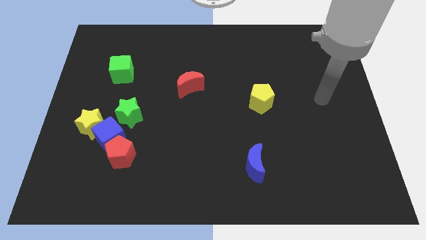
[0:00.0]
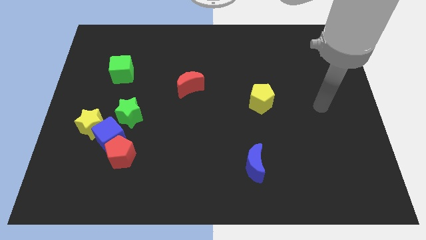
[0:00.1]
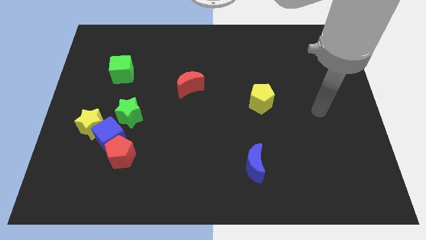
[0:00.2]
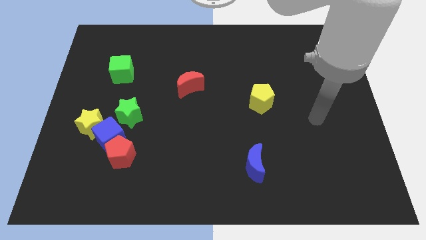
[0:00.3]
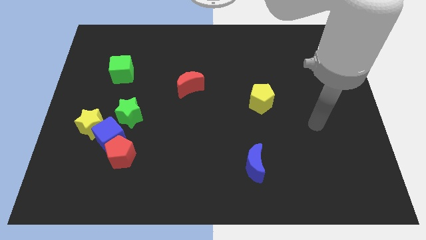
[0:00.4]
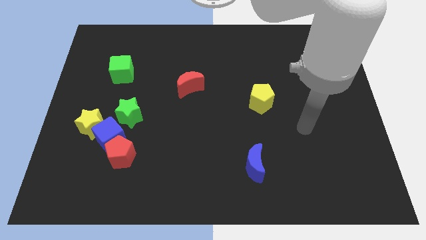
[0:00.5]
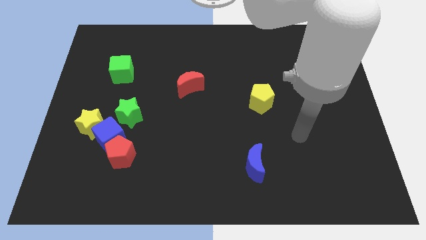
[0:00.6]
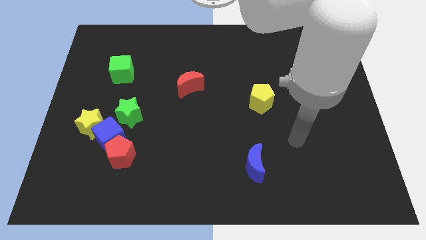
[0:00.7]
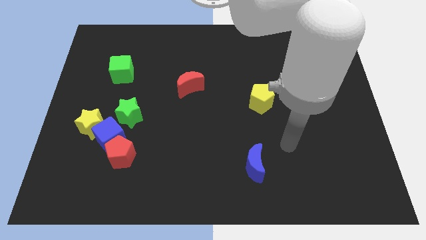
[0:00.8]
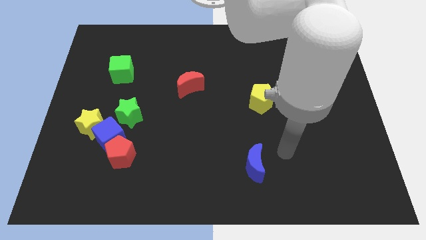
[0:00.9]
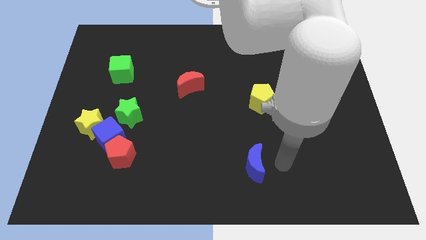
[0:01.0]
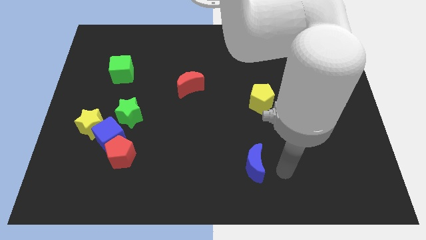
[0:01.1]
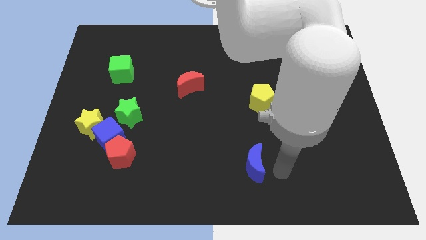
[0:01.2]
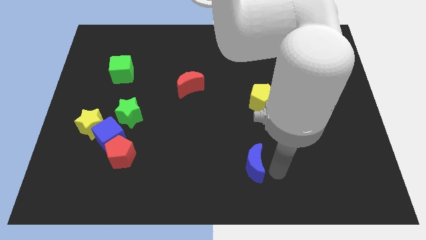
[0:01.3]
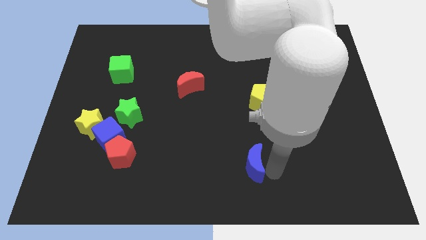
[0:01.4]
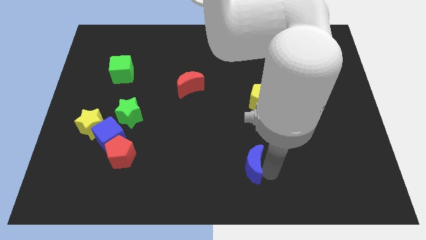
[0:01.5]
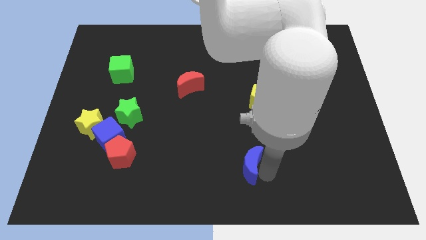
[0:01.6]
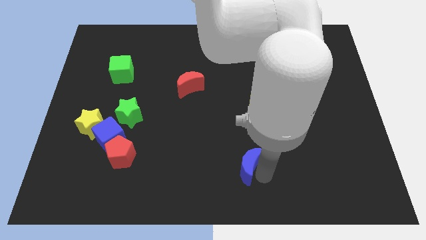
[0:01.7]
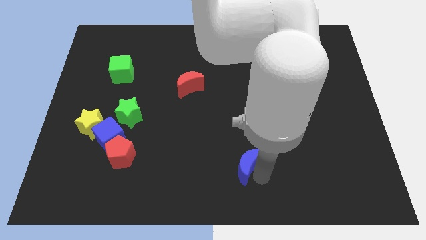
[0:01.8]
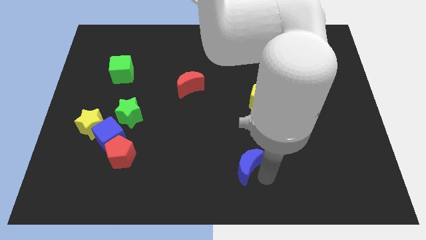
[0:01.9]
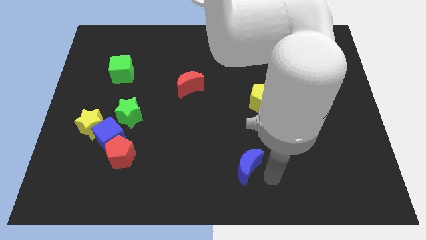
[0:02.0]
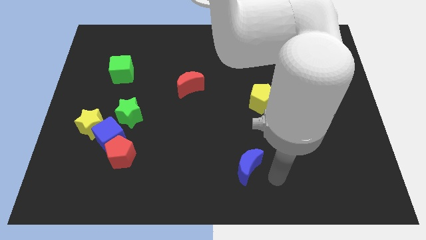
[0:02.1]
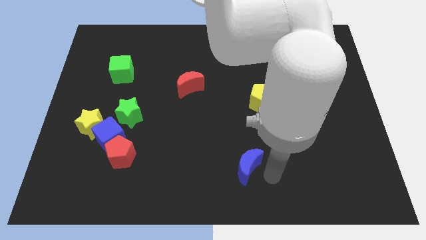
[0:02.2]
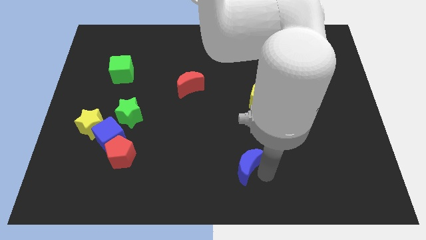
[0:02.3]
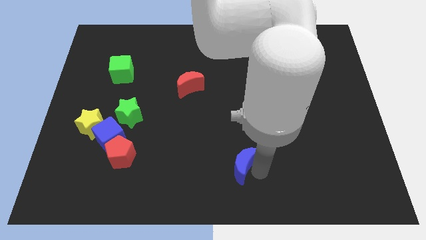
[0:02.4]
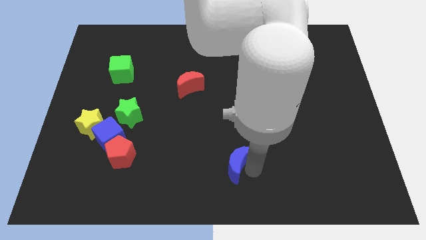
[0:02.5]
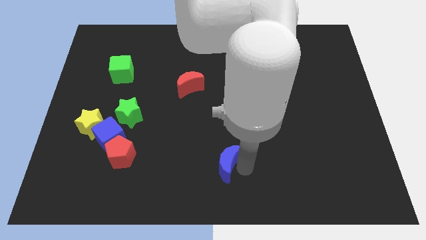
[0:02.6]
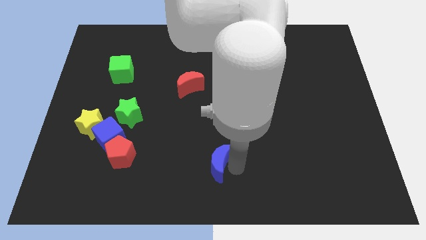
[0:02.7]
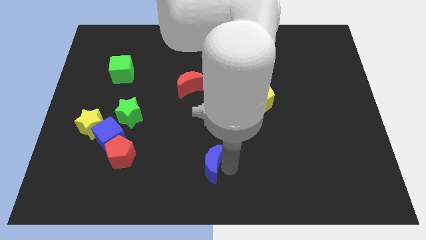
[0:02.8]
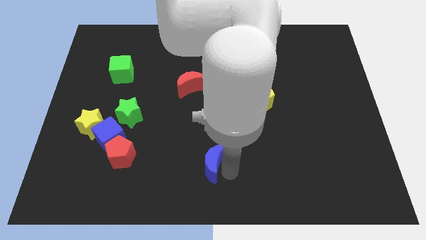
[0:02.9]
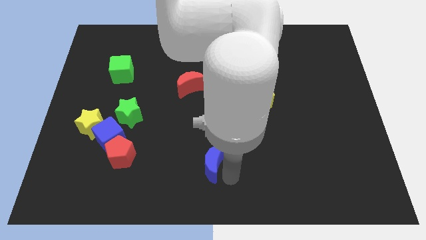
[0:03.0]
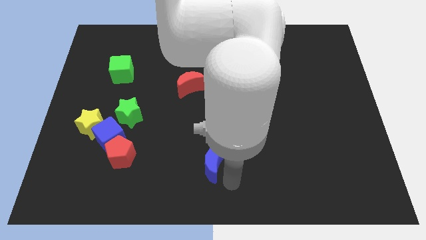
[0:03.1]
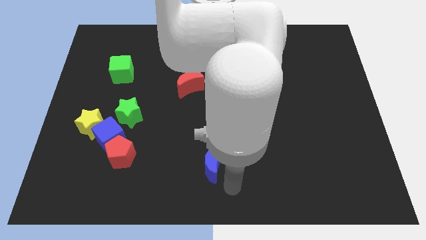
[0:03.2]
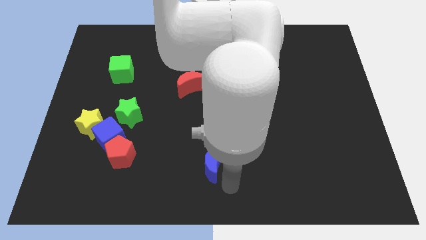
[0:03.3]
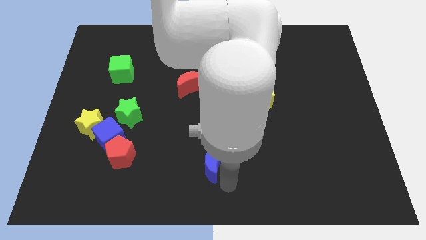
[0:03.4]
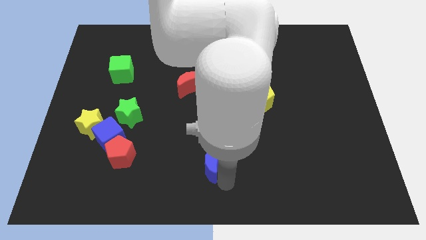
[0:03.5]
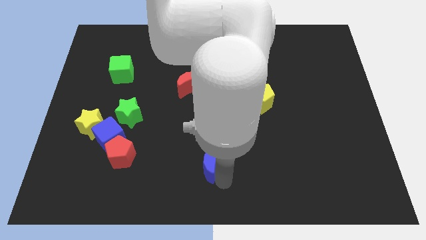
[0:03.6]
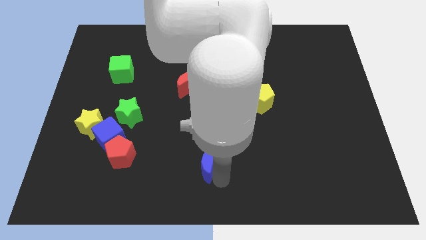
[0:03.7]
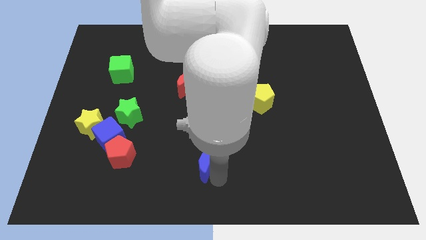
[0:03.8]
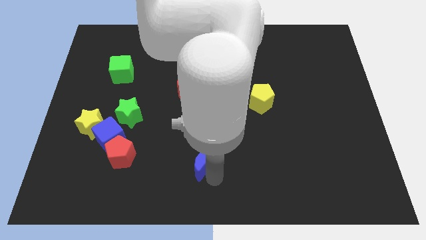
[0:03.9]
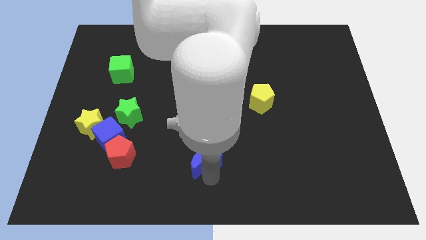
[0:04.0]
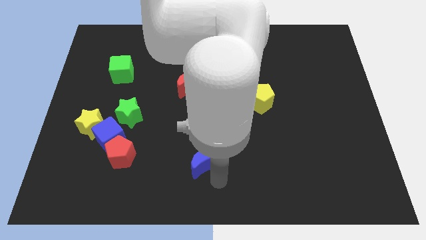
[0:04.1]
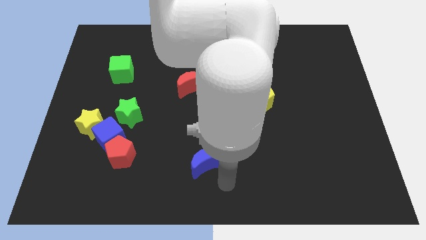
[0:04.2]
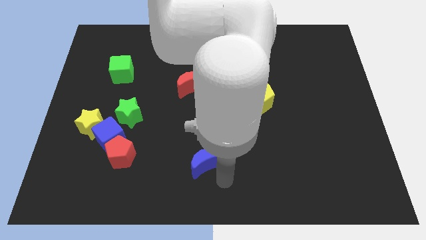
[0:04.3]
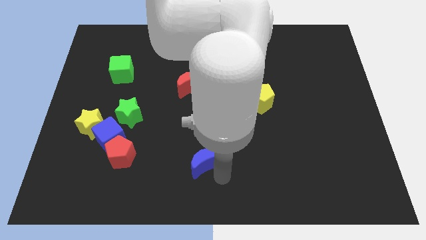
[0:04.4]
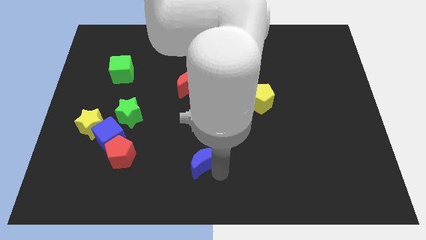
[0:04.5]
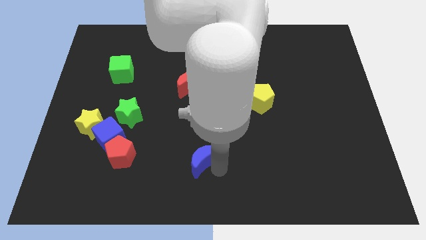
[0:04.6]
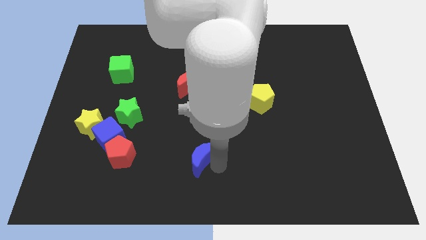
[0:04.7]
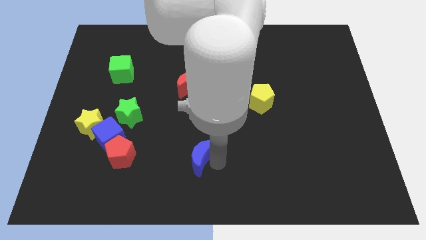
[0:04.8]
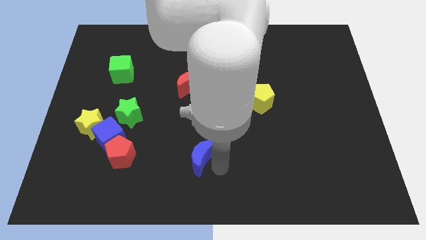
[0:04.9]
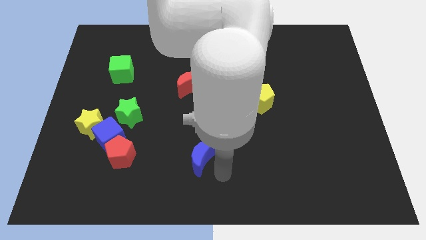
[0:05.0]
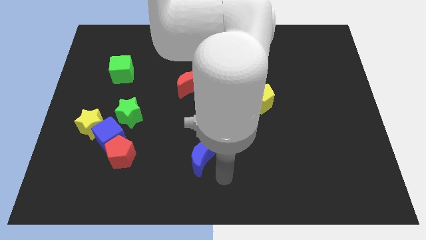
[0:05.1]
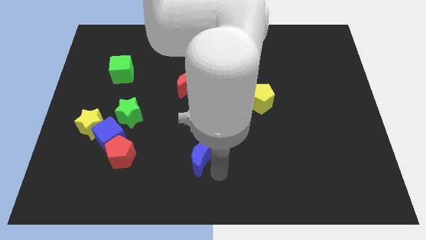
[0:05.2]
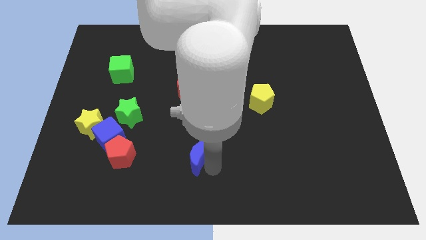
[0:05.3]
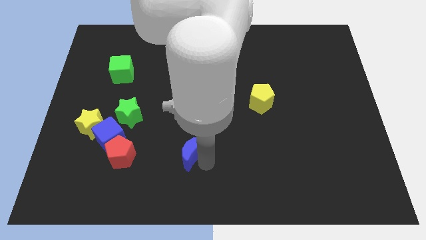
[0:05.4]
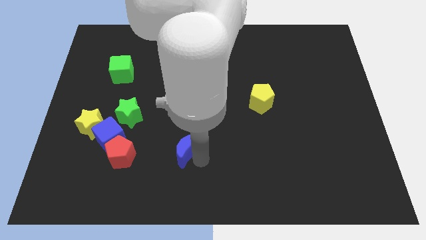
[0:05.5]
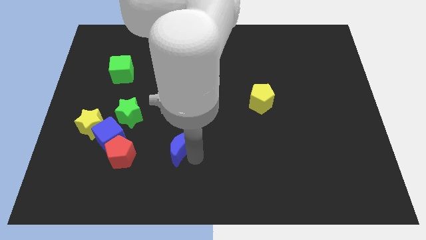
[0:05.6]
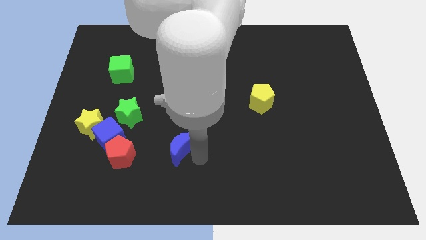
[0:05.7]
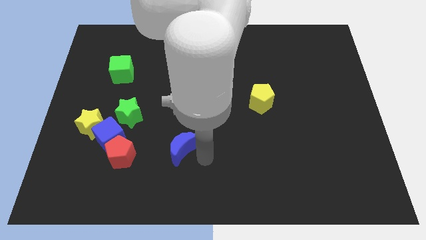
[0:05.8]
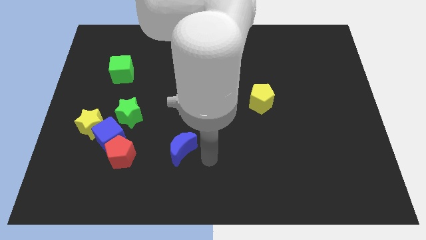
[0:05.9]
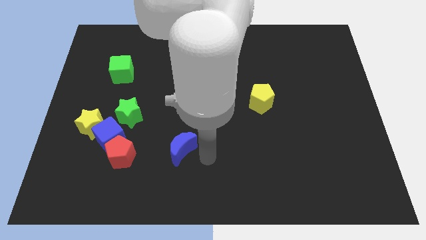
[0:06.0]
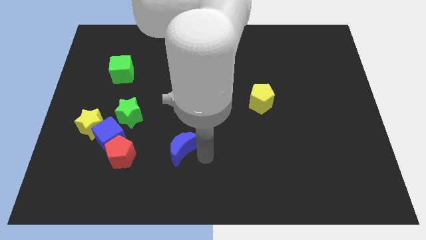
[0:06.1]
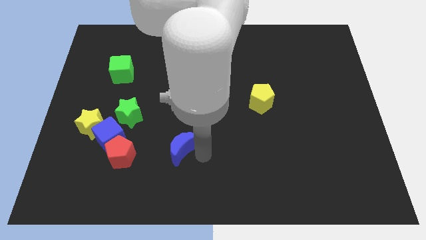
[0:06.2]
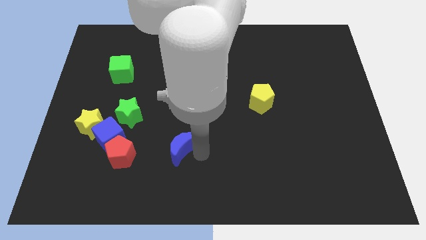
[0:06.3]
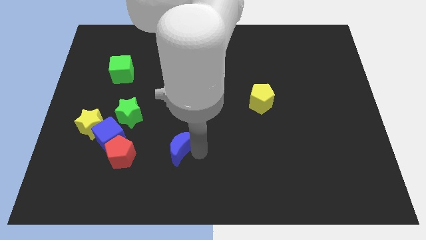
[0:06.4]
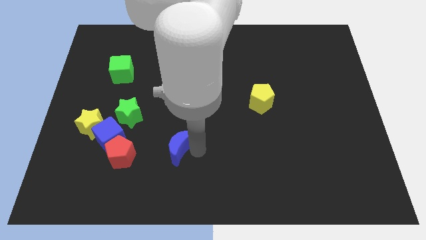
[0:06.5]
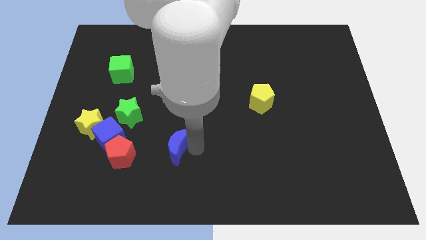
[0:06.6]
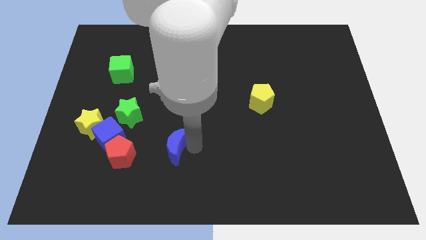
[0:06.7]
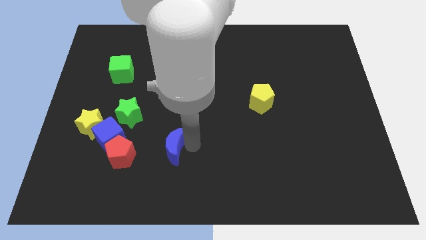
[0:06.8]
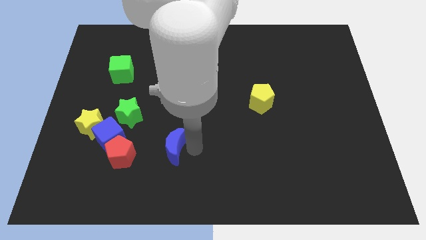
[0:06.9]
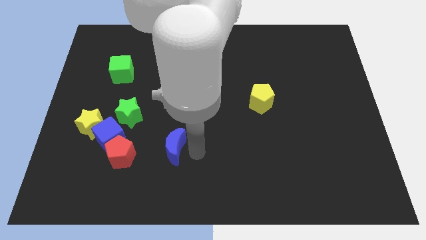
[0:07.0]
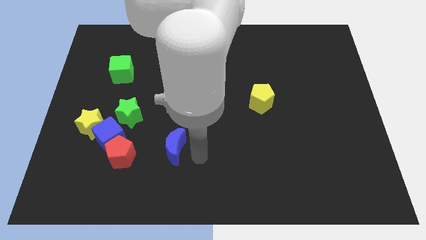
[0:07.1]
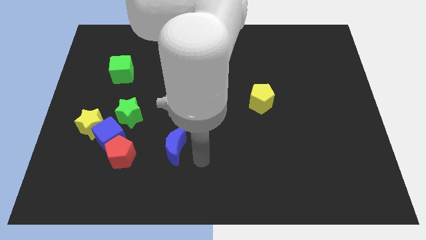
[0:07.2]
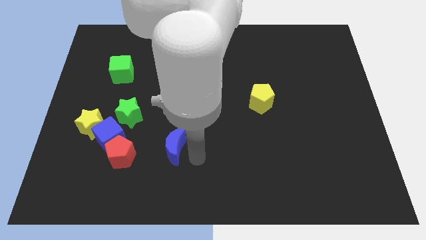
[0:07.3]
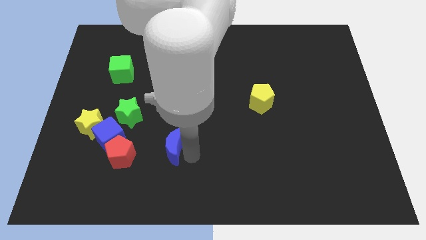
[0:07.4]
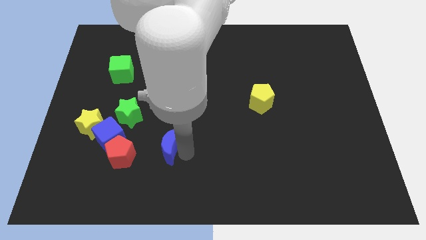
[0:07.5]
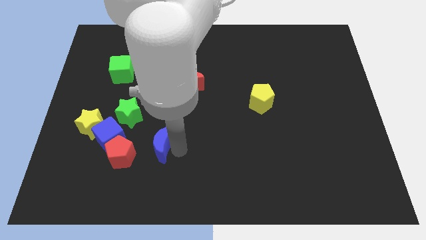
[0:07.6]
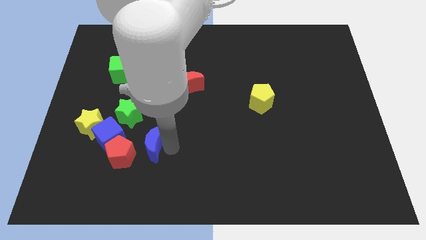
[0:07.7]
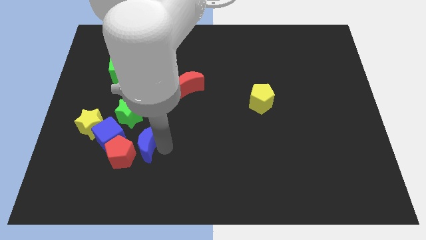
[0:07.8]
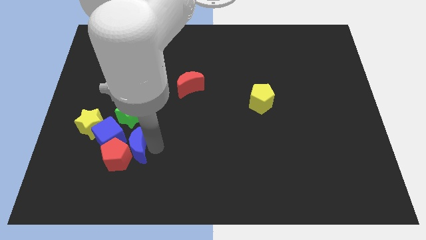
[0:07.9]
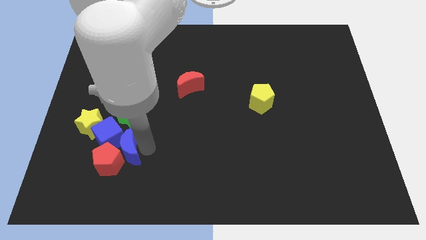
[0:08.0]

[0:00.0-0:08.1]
slide the blue moon close to the blue cube
